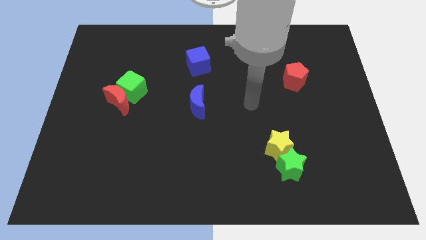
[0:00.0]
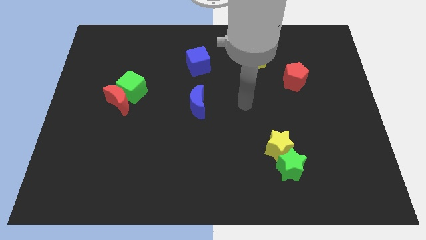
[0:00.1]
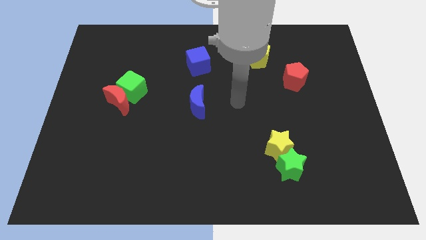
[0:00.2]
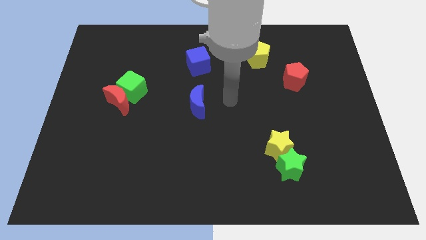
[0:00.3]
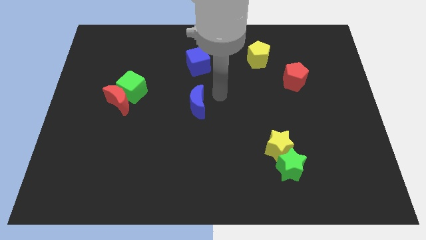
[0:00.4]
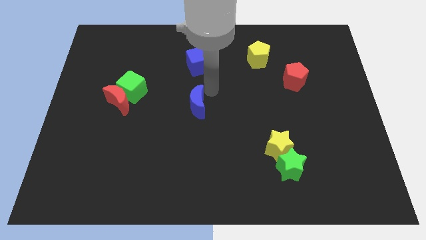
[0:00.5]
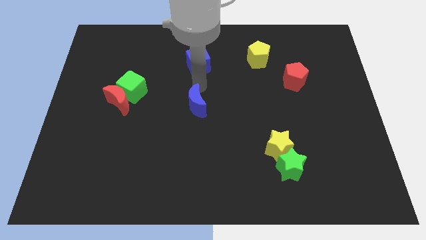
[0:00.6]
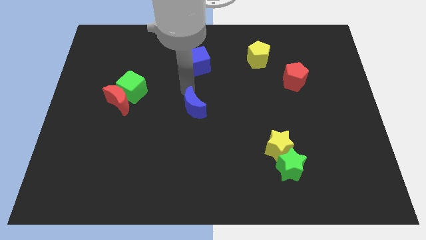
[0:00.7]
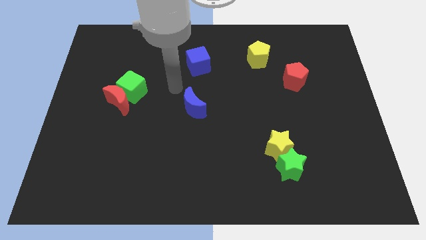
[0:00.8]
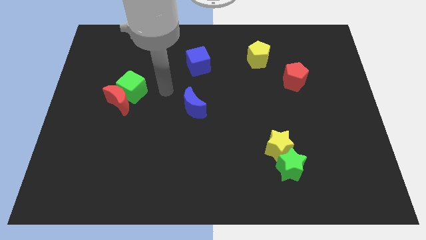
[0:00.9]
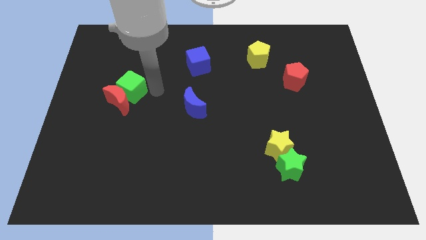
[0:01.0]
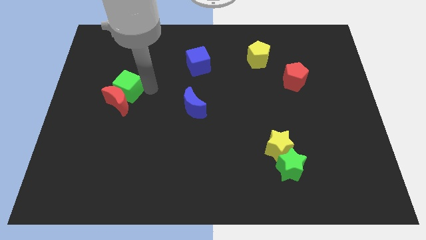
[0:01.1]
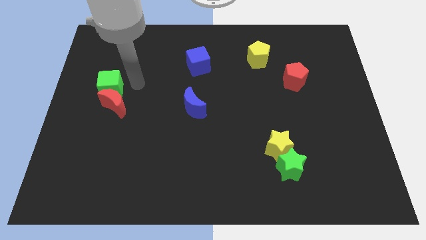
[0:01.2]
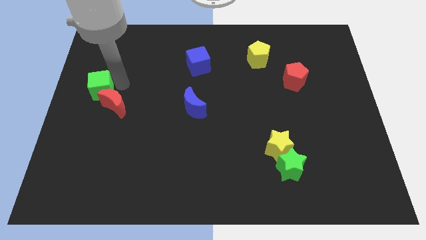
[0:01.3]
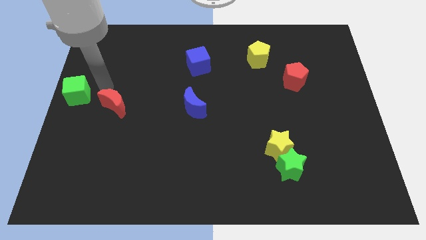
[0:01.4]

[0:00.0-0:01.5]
pull the red moon apart from the green cube

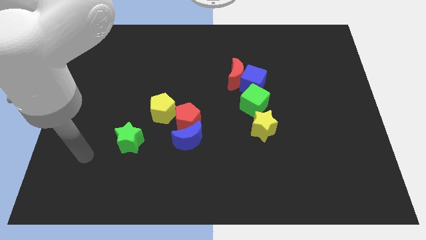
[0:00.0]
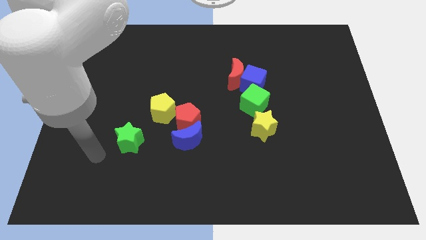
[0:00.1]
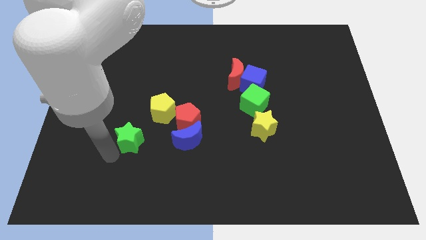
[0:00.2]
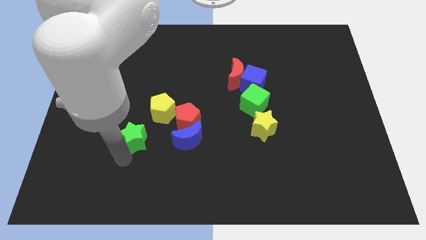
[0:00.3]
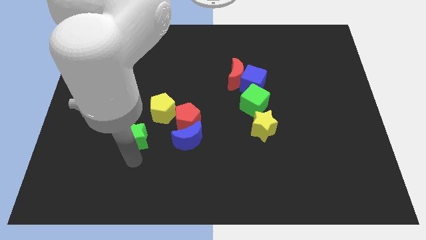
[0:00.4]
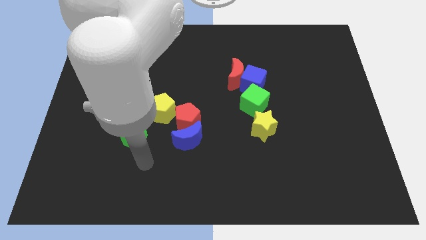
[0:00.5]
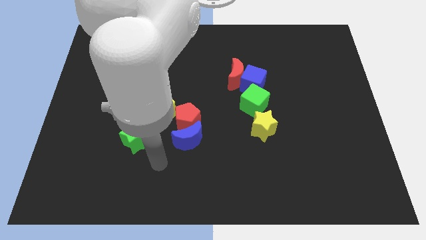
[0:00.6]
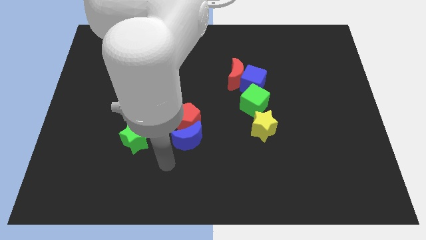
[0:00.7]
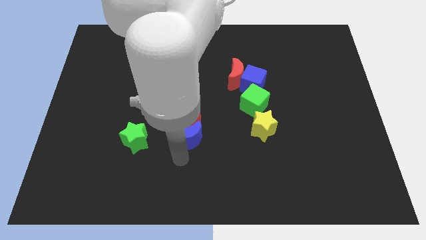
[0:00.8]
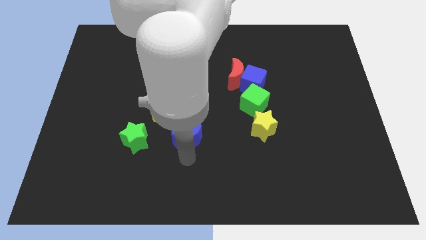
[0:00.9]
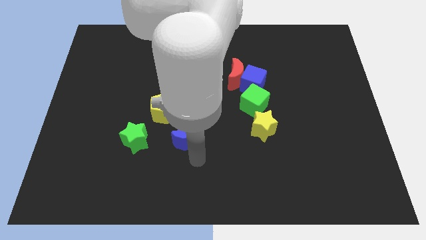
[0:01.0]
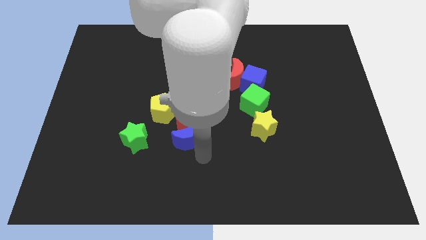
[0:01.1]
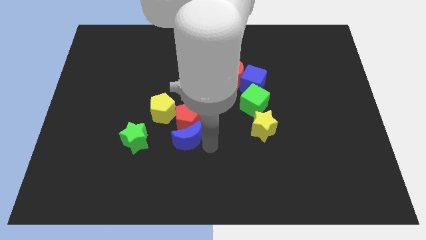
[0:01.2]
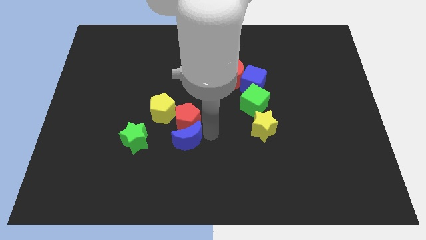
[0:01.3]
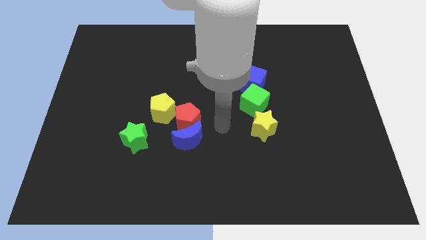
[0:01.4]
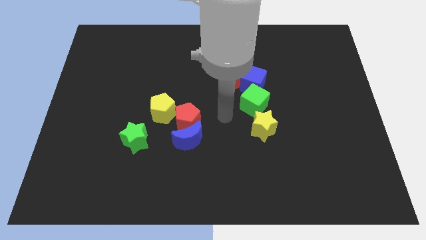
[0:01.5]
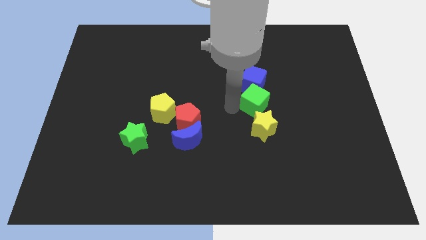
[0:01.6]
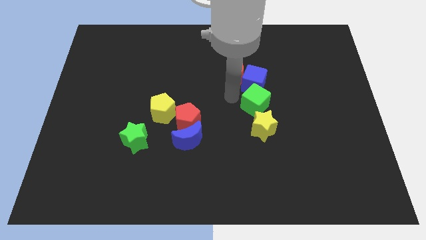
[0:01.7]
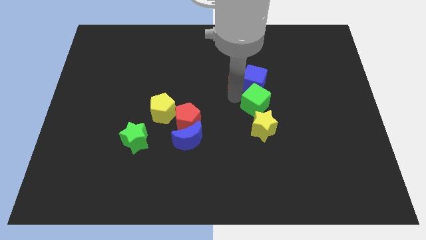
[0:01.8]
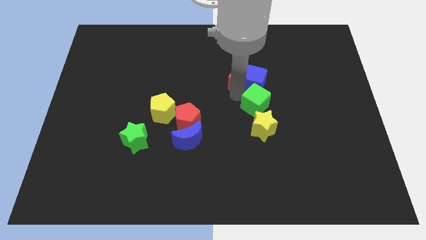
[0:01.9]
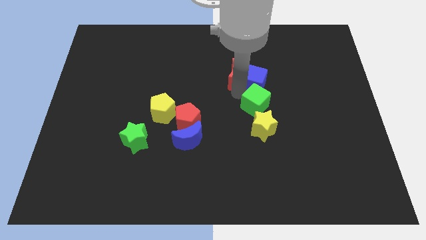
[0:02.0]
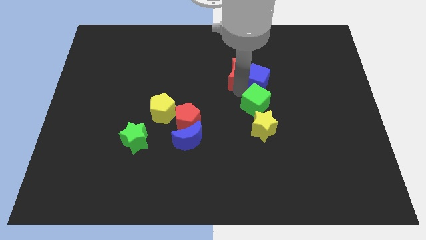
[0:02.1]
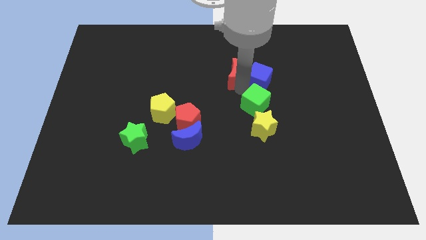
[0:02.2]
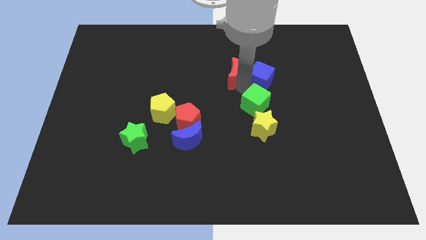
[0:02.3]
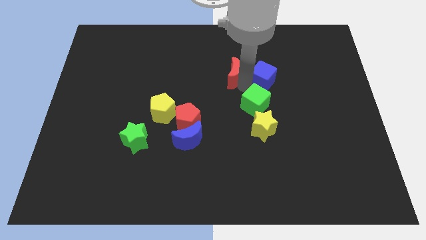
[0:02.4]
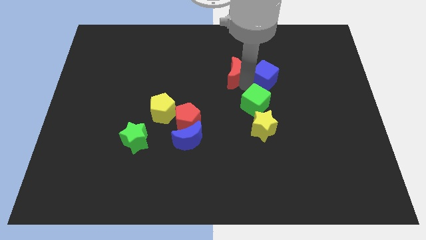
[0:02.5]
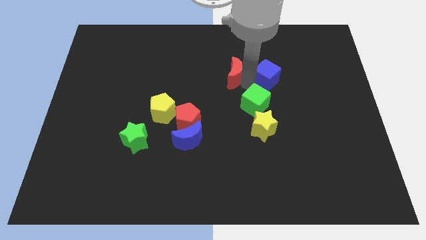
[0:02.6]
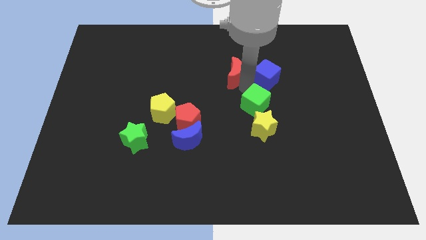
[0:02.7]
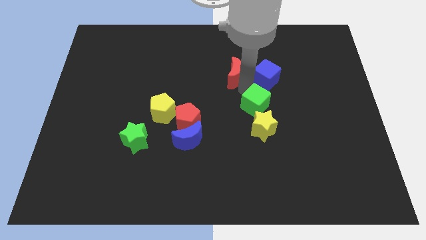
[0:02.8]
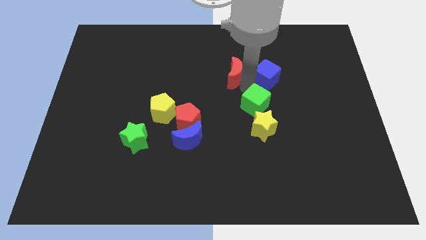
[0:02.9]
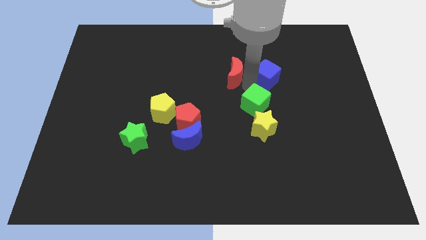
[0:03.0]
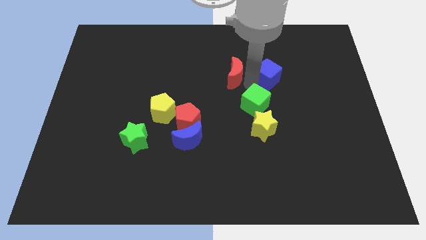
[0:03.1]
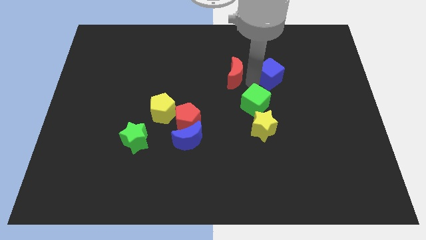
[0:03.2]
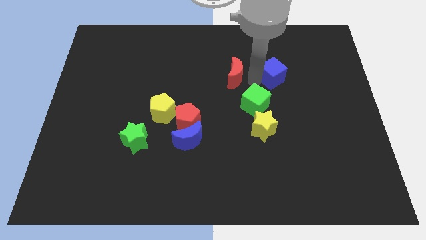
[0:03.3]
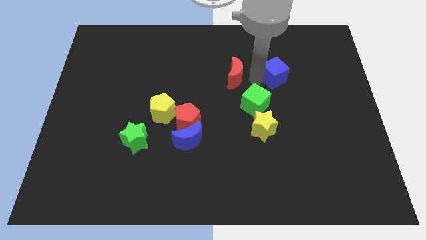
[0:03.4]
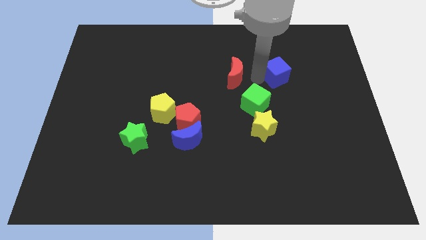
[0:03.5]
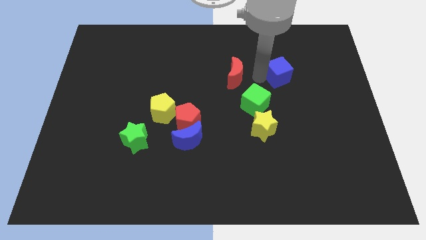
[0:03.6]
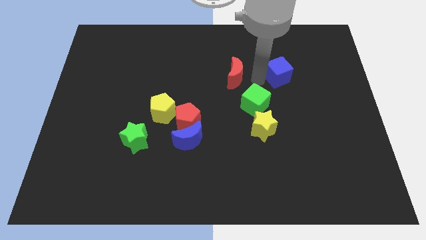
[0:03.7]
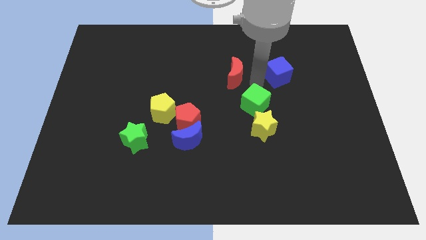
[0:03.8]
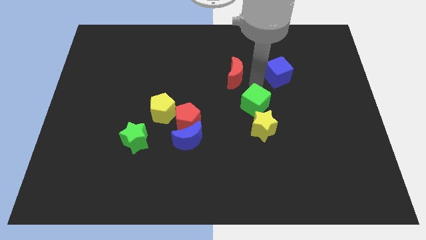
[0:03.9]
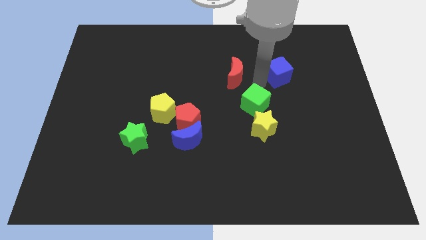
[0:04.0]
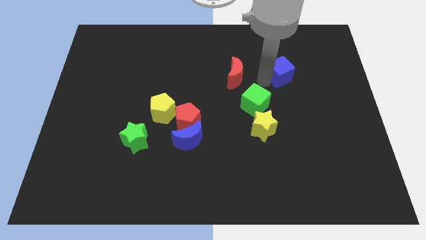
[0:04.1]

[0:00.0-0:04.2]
separate the blue cube from the red moon and green cube

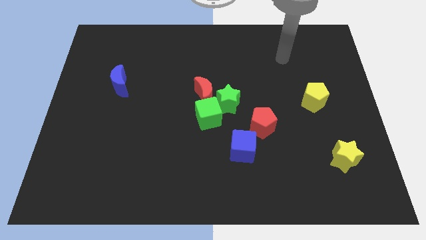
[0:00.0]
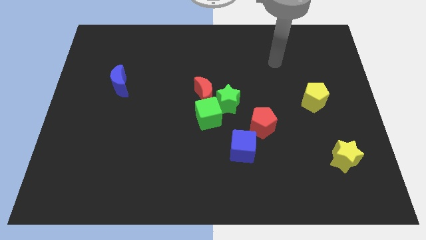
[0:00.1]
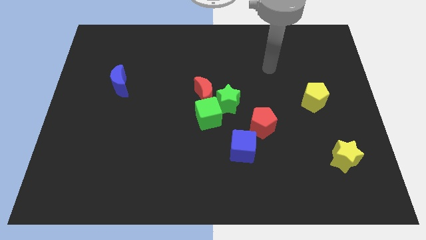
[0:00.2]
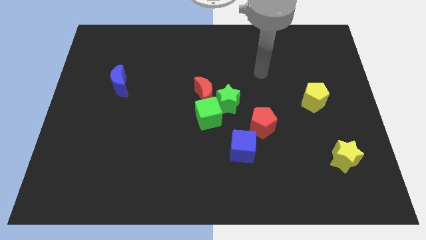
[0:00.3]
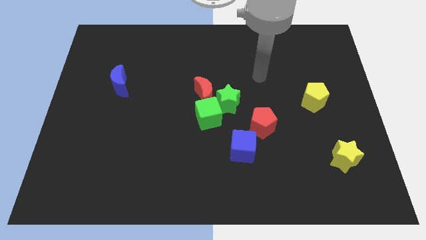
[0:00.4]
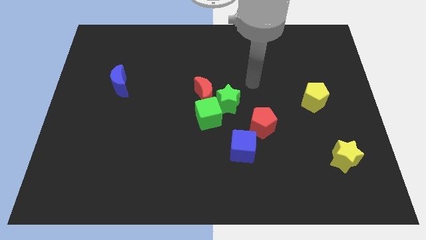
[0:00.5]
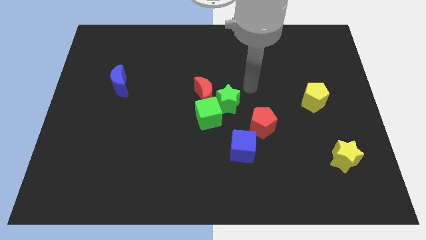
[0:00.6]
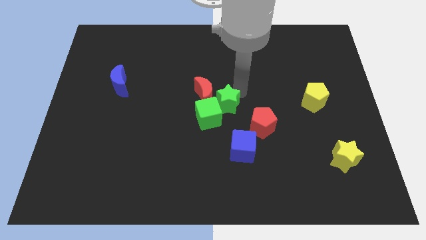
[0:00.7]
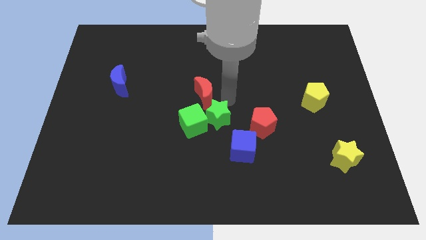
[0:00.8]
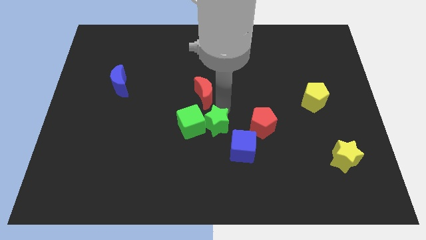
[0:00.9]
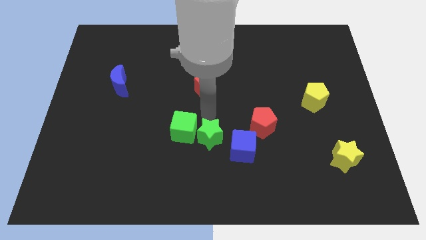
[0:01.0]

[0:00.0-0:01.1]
separate the red moon from the green star and green cube

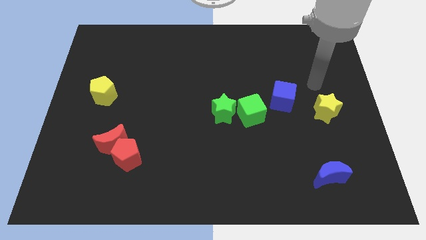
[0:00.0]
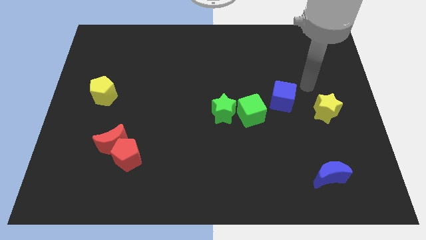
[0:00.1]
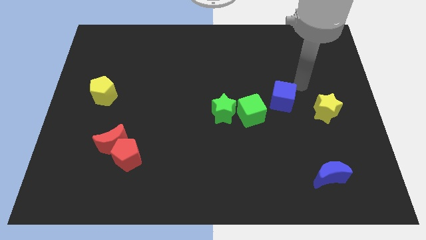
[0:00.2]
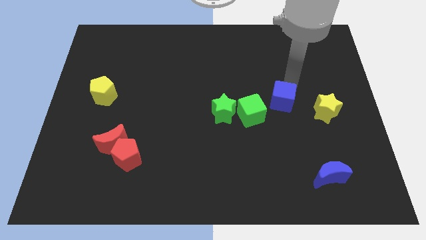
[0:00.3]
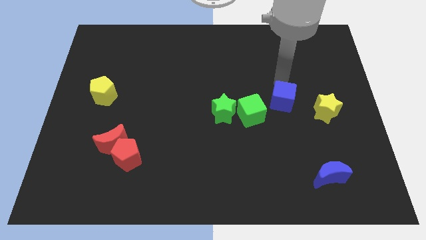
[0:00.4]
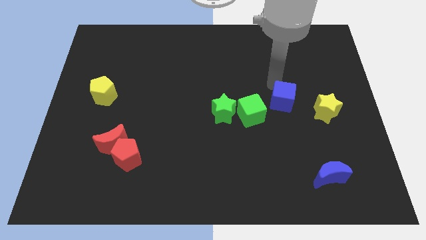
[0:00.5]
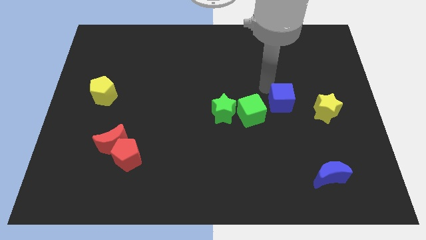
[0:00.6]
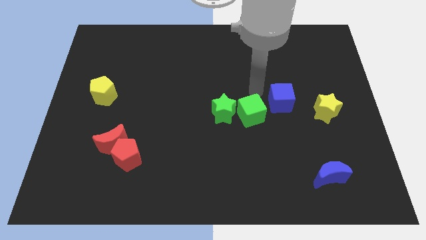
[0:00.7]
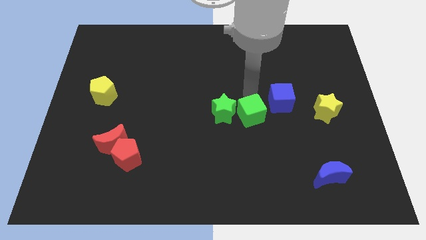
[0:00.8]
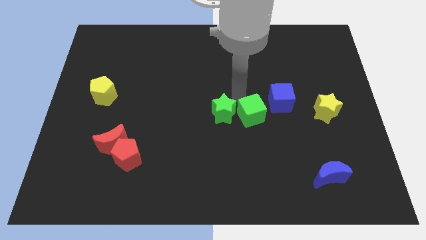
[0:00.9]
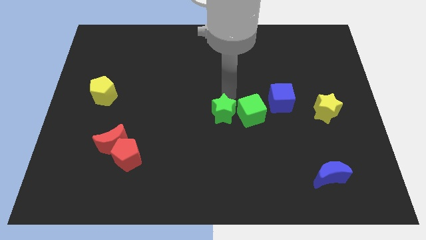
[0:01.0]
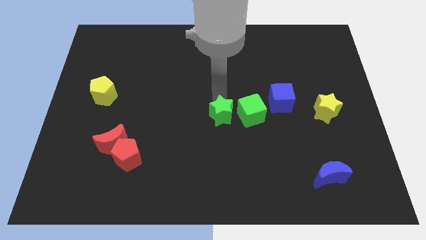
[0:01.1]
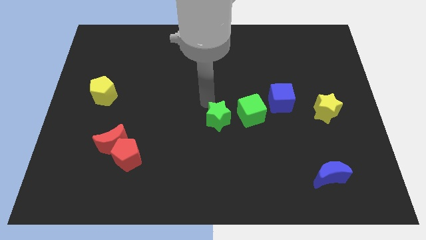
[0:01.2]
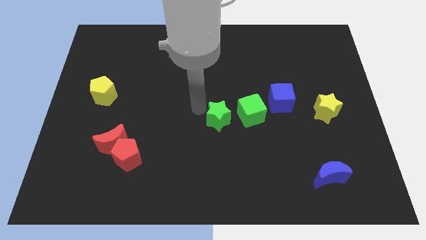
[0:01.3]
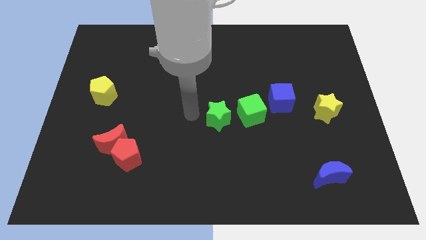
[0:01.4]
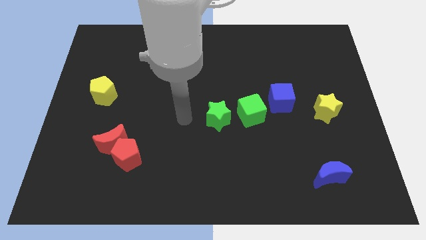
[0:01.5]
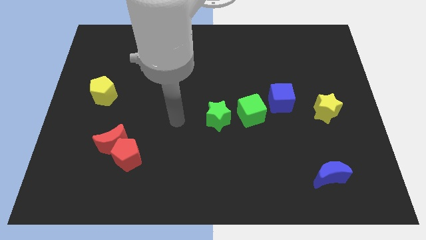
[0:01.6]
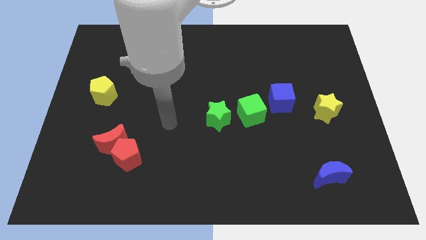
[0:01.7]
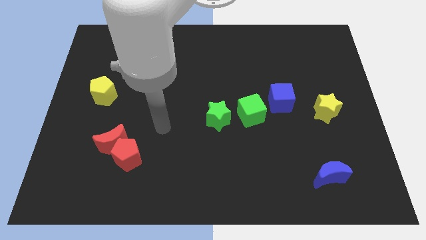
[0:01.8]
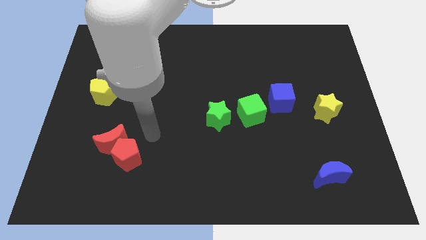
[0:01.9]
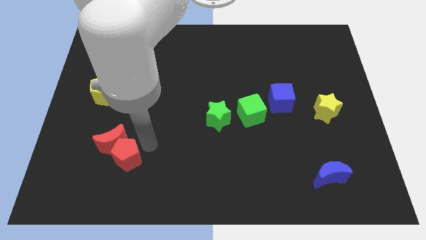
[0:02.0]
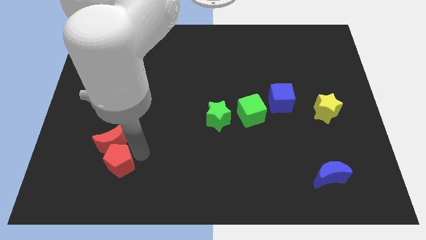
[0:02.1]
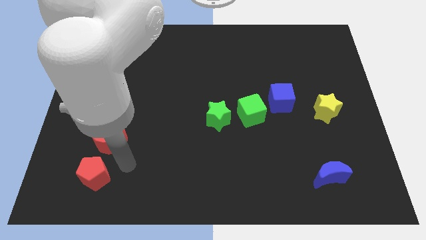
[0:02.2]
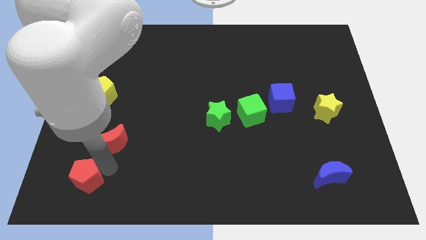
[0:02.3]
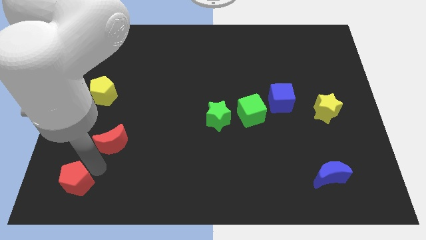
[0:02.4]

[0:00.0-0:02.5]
separate the red moon from the red pentagon
